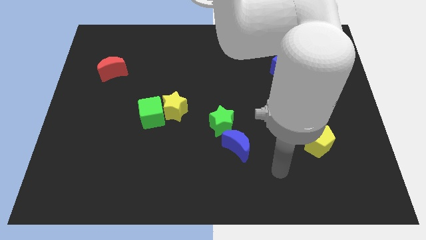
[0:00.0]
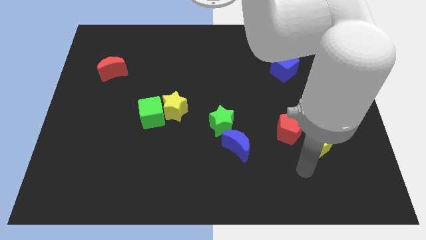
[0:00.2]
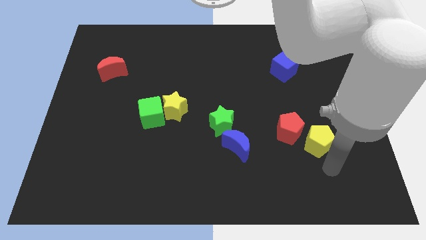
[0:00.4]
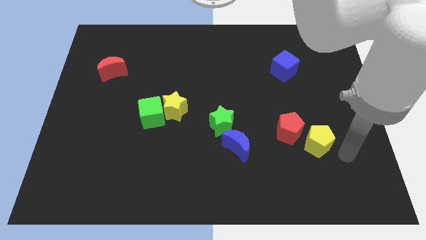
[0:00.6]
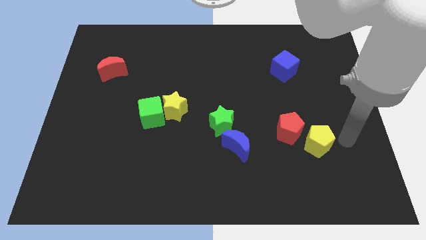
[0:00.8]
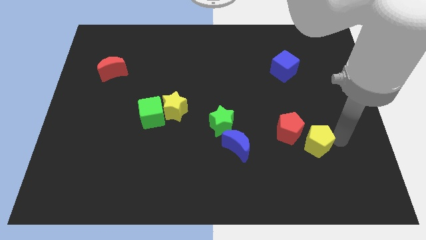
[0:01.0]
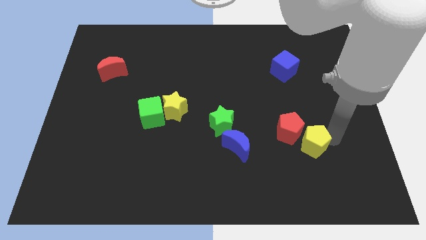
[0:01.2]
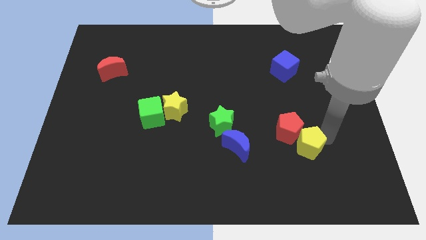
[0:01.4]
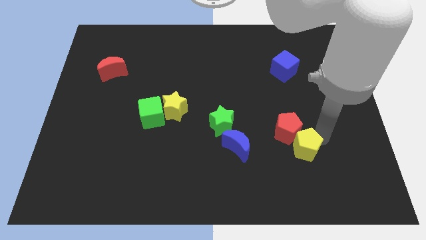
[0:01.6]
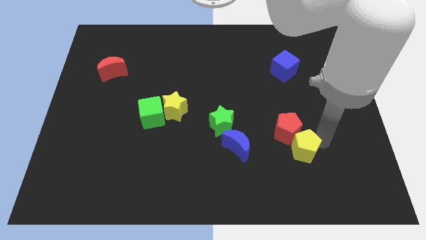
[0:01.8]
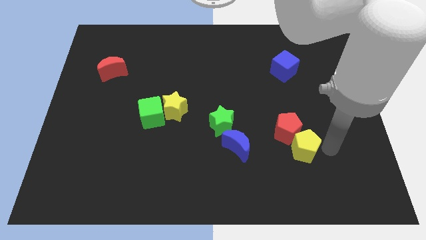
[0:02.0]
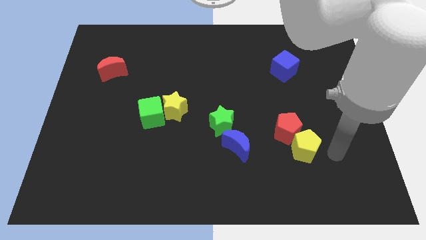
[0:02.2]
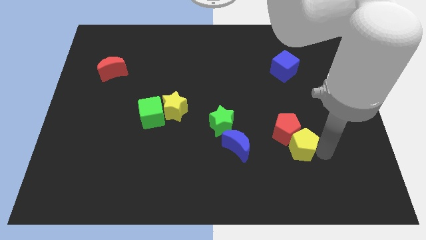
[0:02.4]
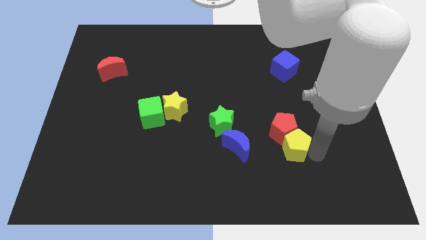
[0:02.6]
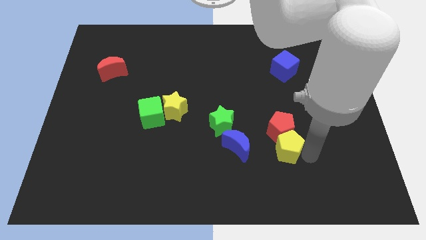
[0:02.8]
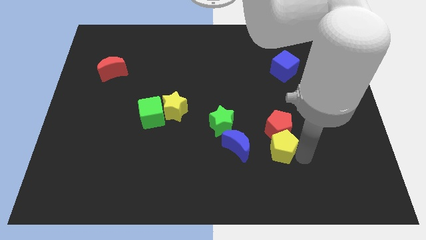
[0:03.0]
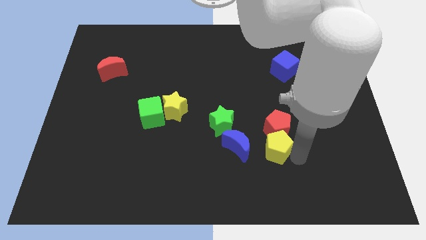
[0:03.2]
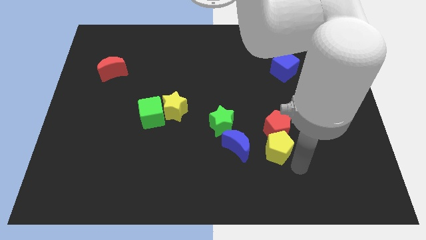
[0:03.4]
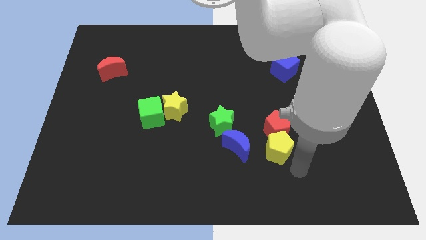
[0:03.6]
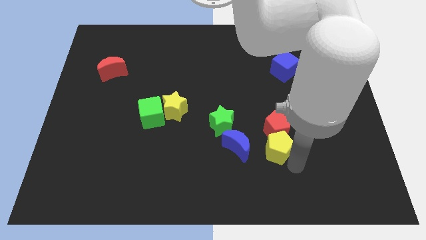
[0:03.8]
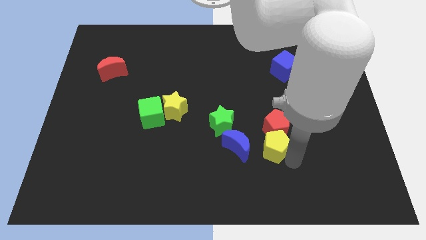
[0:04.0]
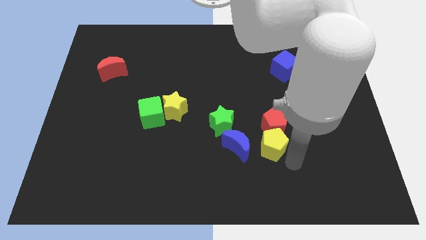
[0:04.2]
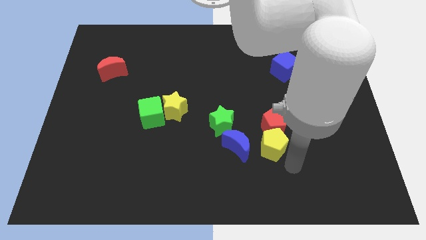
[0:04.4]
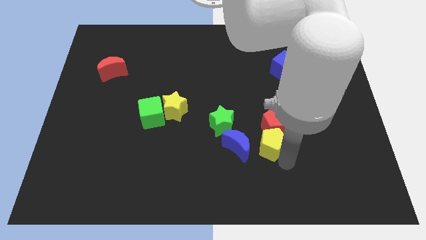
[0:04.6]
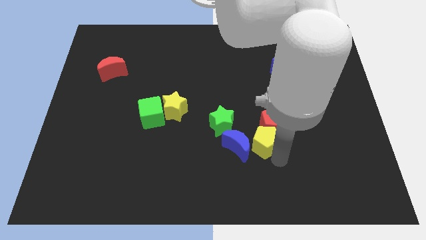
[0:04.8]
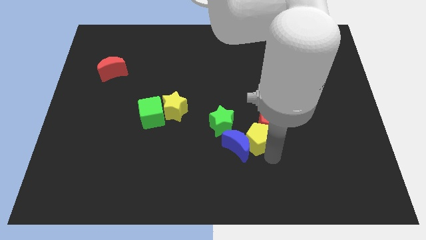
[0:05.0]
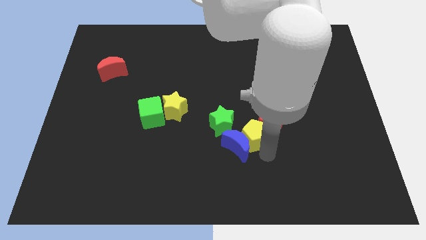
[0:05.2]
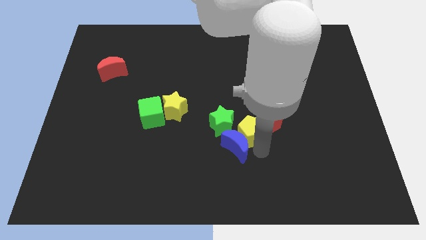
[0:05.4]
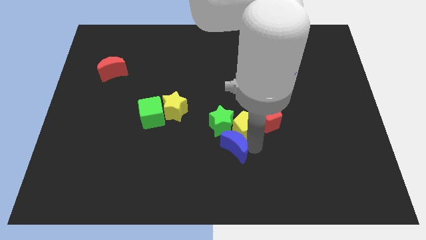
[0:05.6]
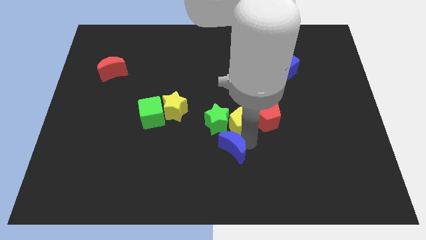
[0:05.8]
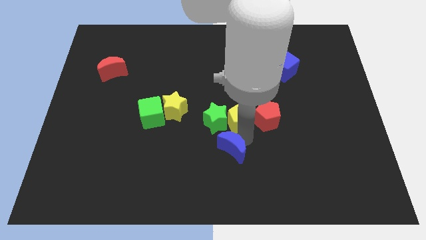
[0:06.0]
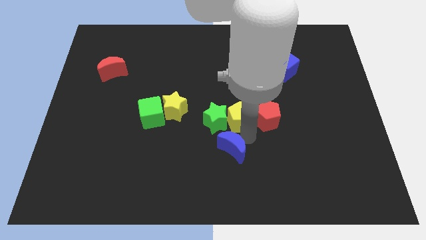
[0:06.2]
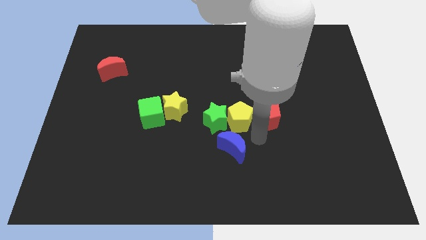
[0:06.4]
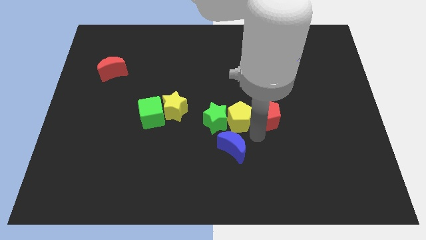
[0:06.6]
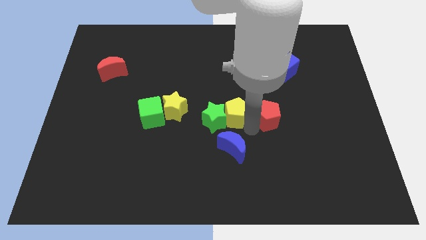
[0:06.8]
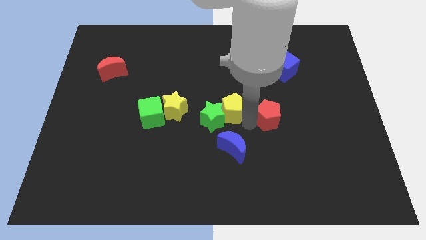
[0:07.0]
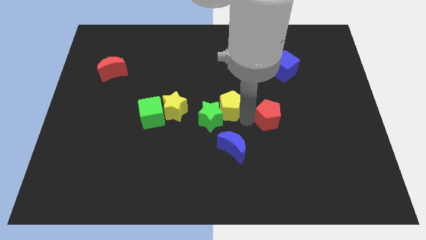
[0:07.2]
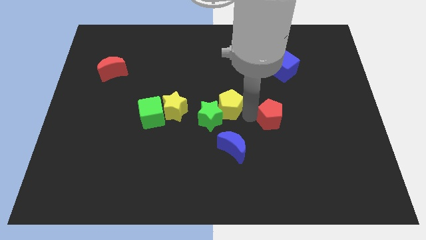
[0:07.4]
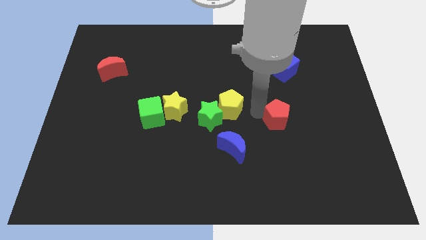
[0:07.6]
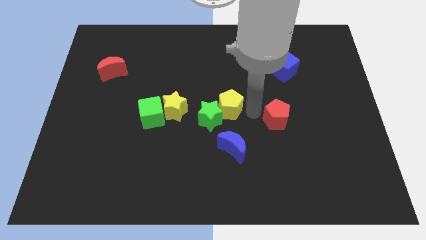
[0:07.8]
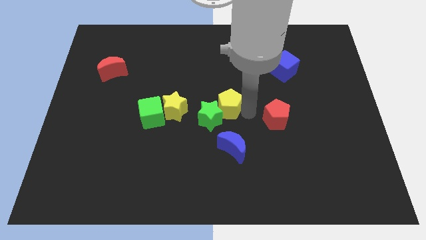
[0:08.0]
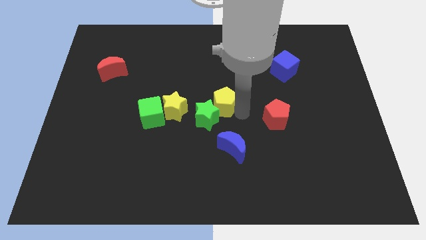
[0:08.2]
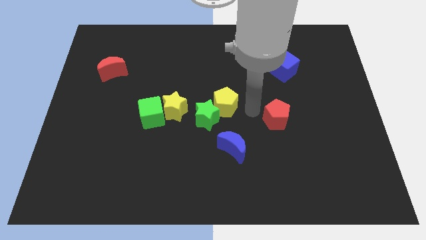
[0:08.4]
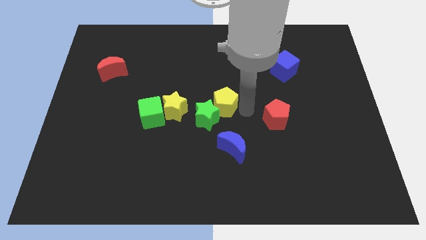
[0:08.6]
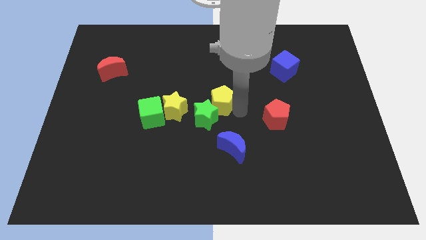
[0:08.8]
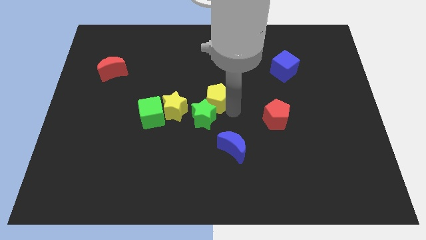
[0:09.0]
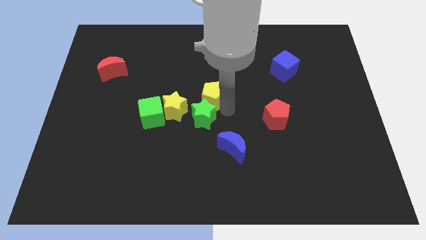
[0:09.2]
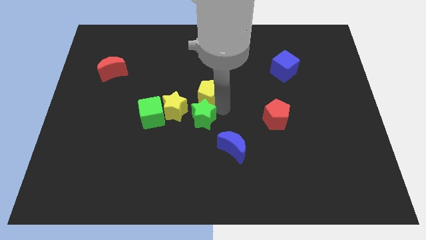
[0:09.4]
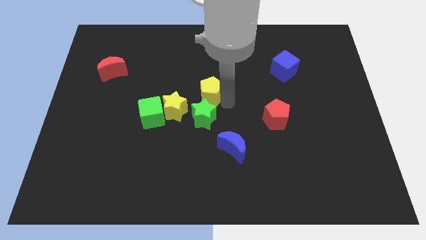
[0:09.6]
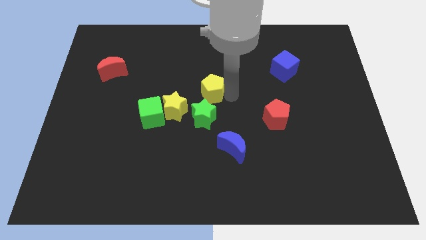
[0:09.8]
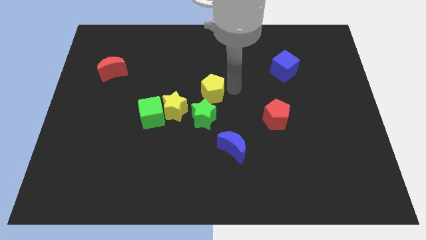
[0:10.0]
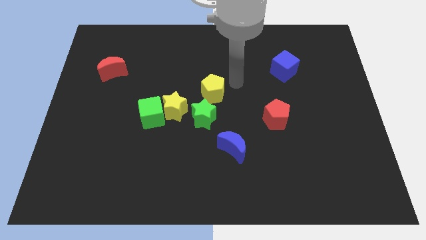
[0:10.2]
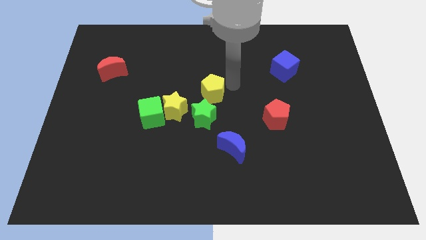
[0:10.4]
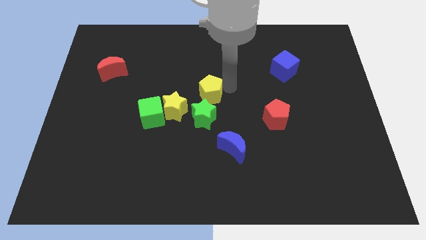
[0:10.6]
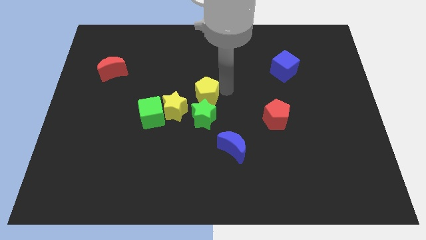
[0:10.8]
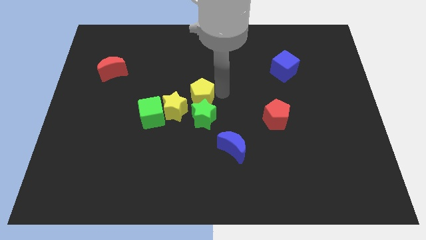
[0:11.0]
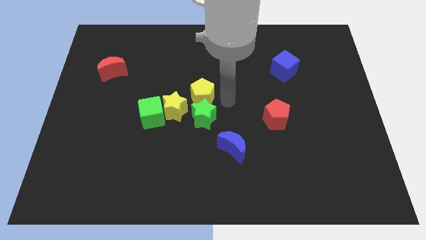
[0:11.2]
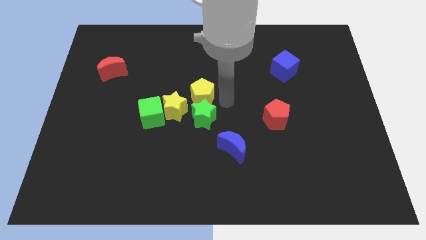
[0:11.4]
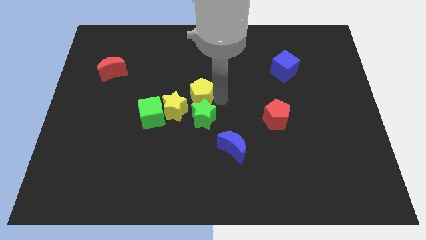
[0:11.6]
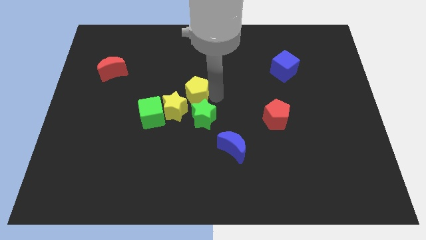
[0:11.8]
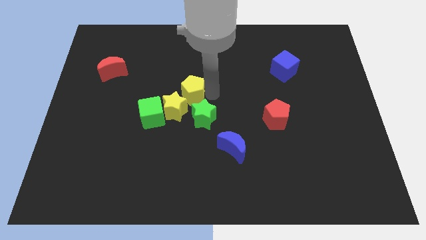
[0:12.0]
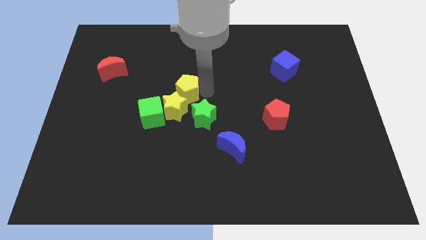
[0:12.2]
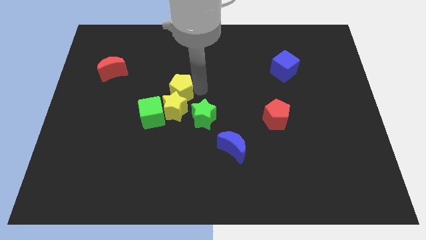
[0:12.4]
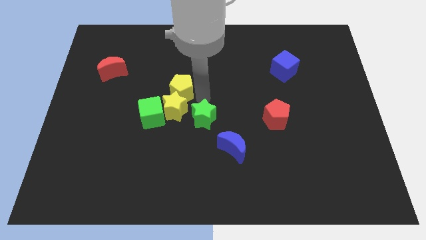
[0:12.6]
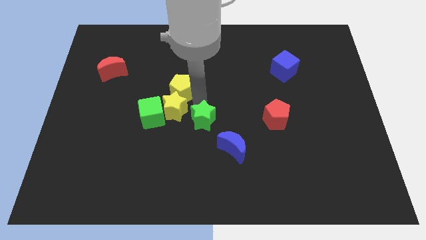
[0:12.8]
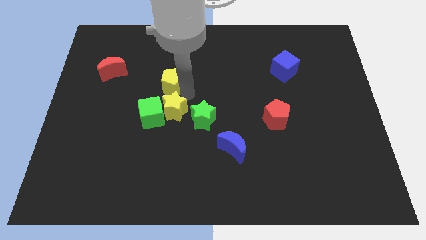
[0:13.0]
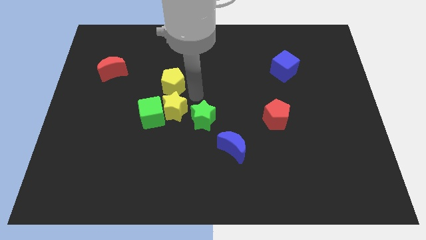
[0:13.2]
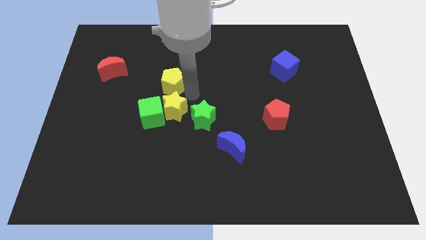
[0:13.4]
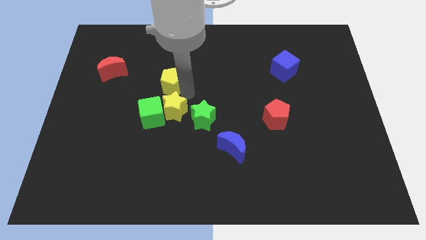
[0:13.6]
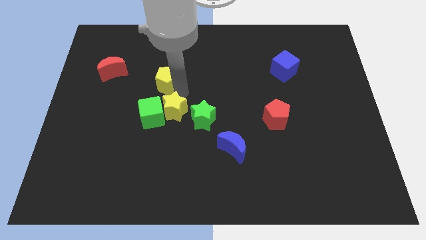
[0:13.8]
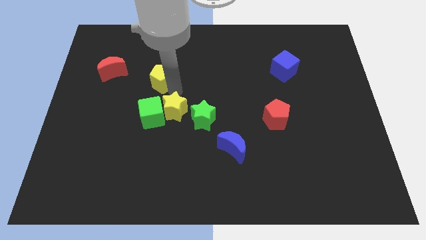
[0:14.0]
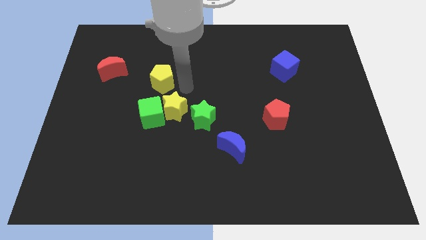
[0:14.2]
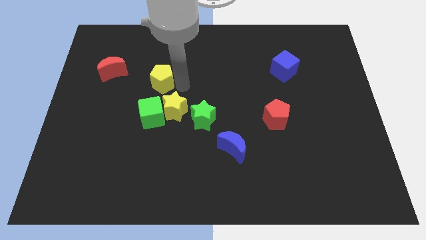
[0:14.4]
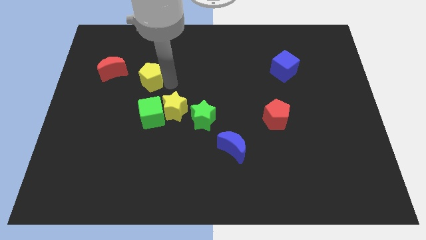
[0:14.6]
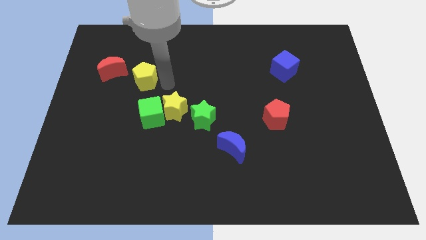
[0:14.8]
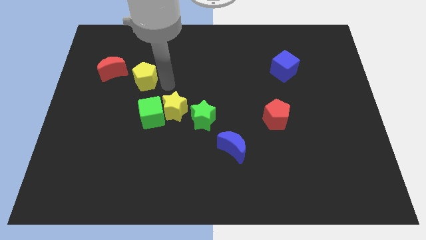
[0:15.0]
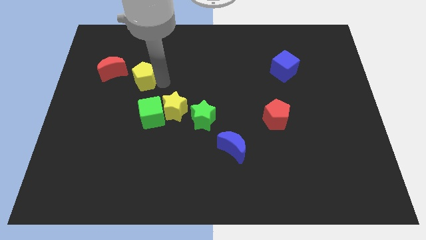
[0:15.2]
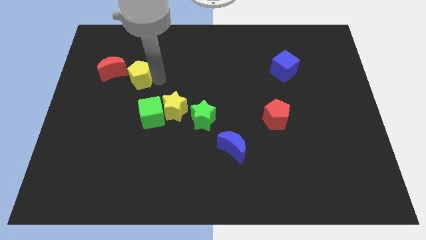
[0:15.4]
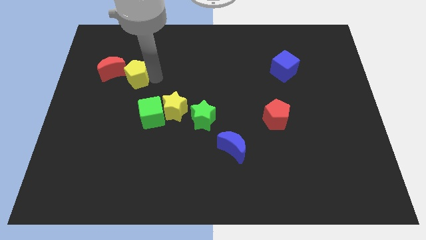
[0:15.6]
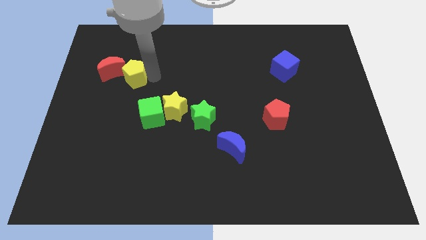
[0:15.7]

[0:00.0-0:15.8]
put the yellow pentagon next to the red moon
